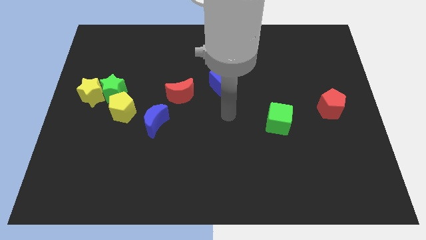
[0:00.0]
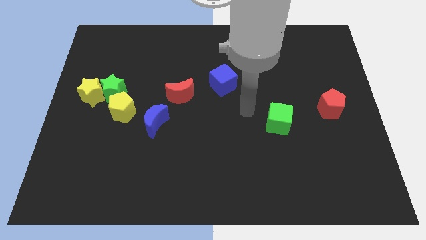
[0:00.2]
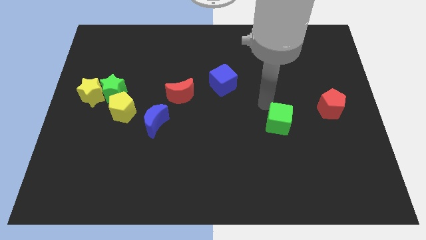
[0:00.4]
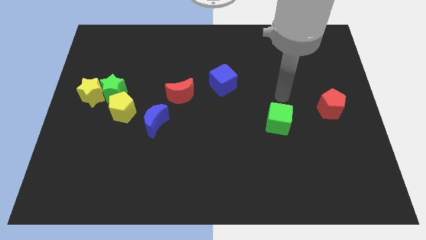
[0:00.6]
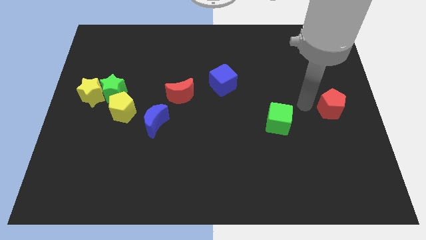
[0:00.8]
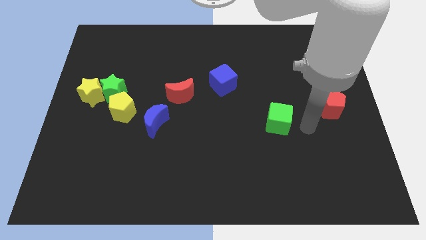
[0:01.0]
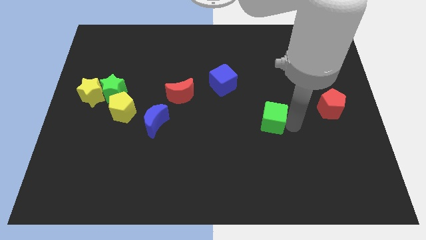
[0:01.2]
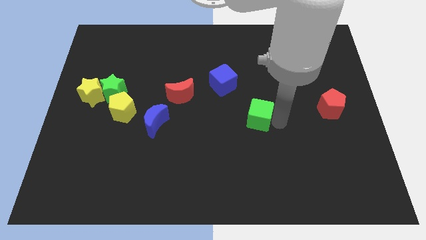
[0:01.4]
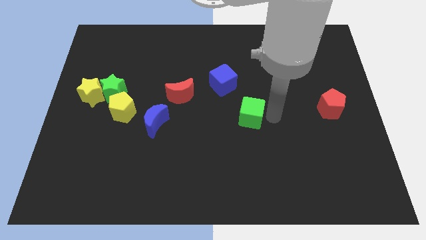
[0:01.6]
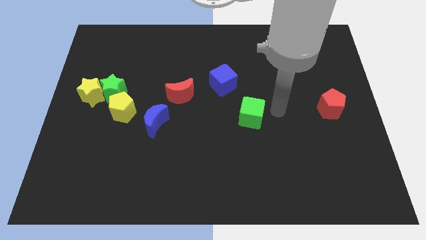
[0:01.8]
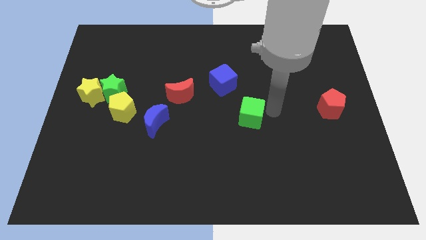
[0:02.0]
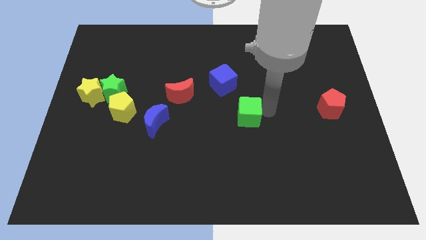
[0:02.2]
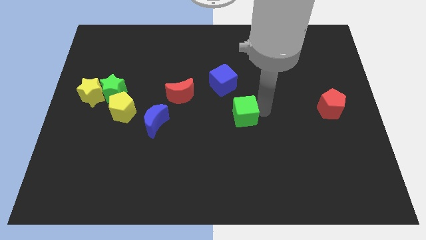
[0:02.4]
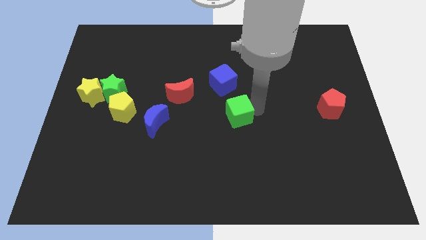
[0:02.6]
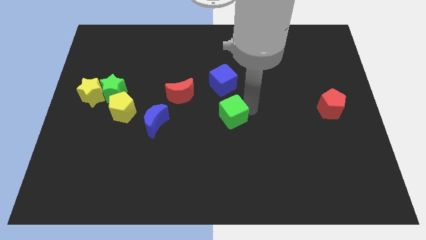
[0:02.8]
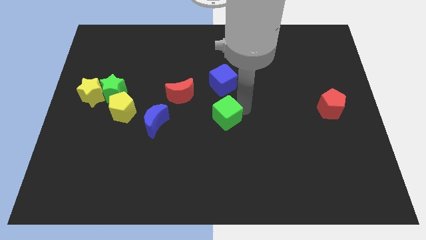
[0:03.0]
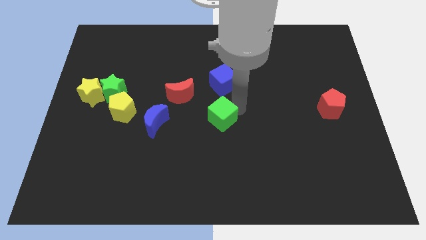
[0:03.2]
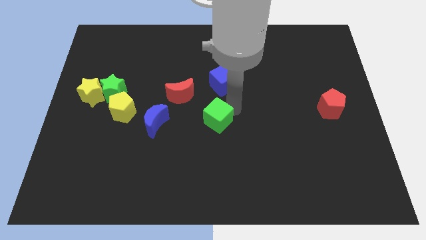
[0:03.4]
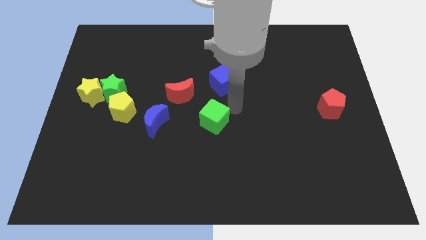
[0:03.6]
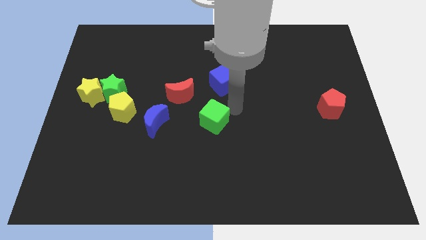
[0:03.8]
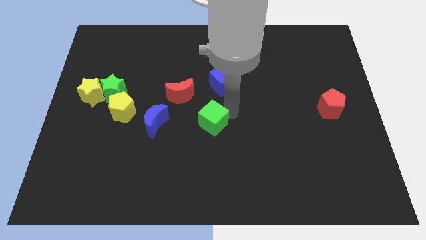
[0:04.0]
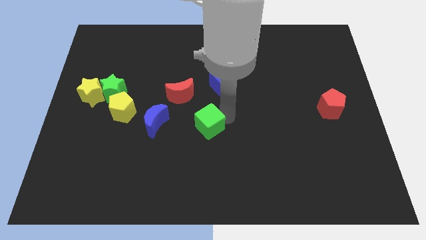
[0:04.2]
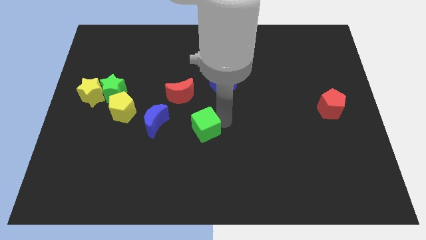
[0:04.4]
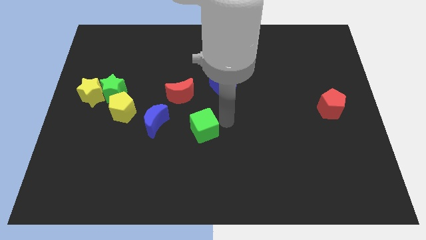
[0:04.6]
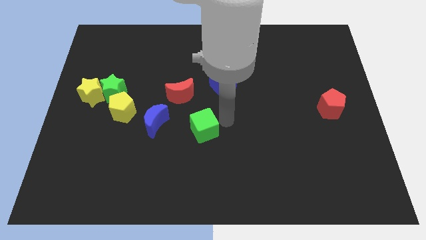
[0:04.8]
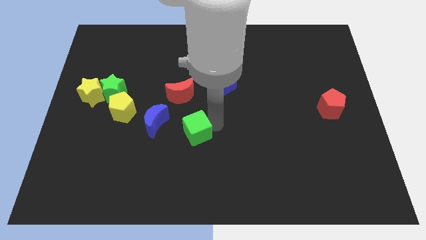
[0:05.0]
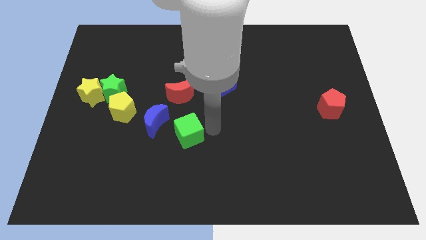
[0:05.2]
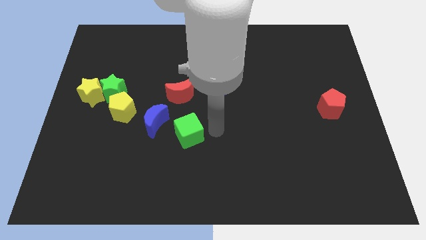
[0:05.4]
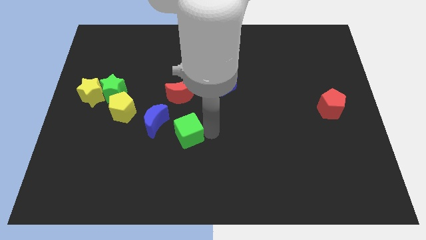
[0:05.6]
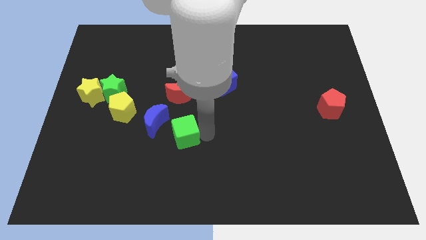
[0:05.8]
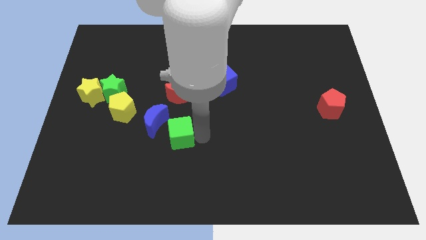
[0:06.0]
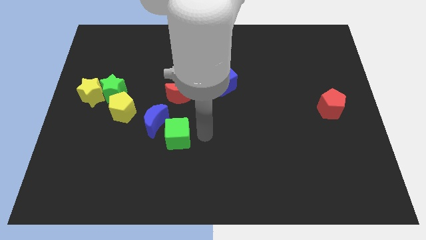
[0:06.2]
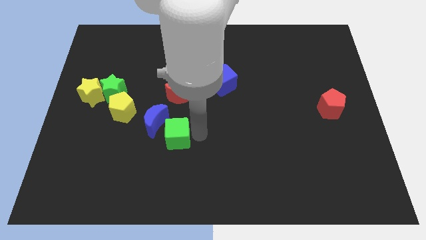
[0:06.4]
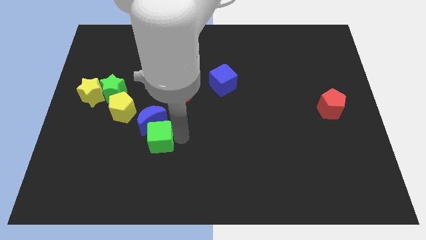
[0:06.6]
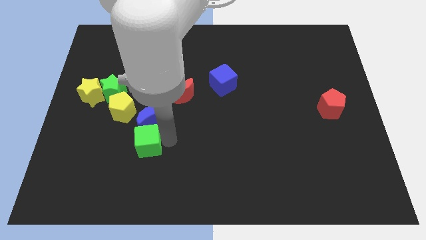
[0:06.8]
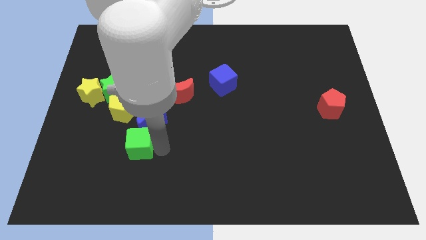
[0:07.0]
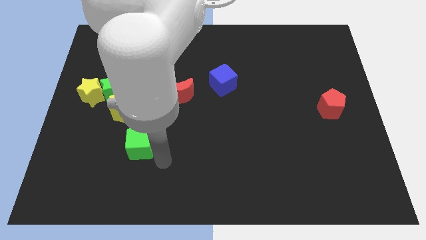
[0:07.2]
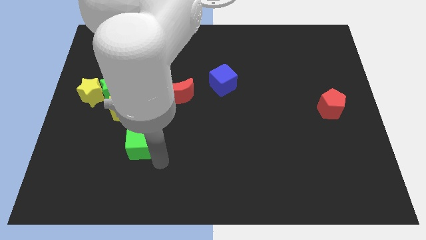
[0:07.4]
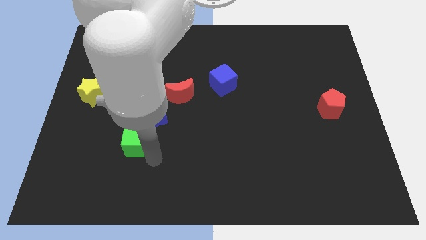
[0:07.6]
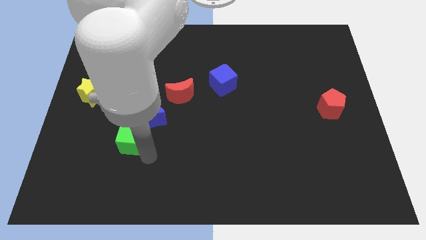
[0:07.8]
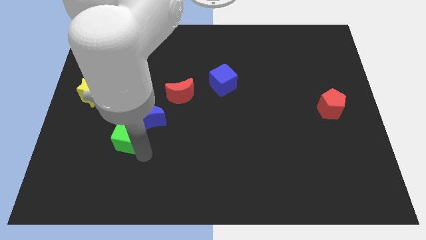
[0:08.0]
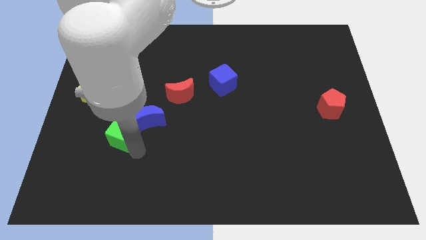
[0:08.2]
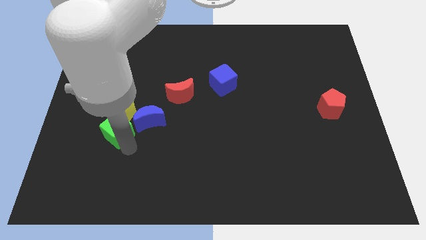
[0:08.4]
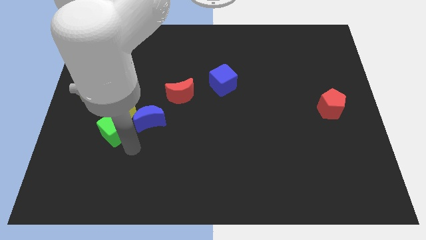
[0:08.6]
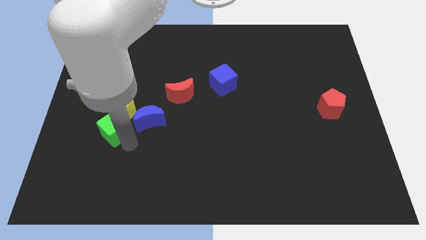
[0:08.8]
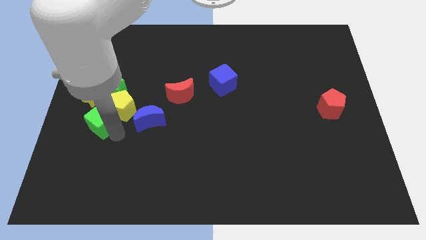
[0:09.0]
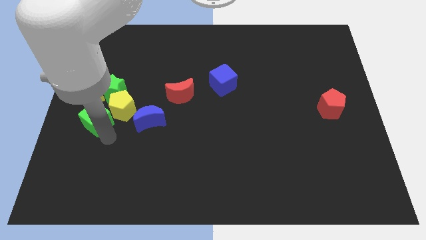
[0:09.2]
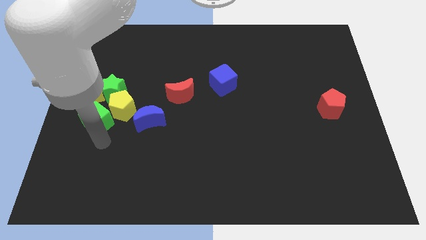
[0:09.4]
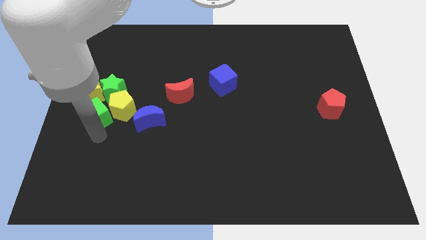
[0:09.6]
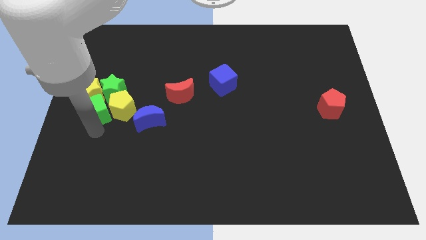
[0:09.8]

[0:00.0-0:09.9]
move the green cube next to the yellow star

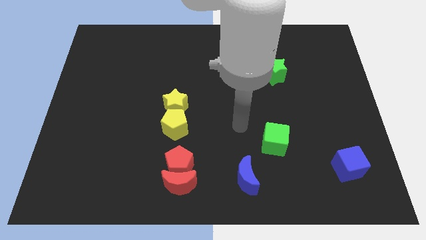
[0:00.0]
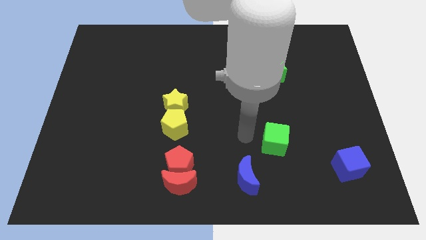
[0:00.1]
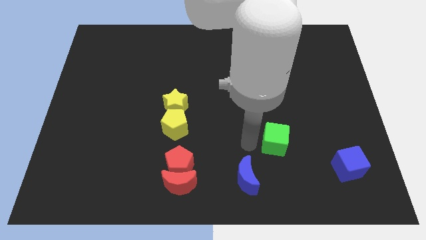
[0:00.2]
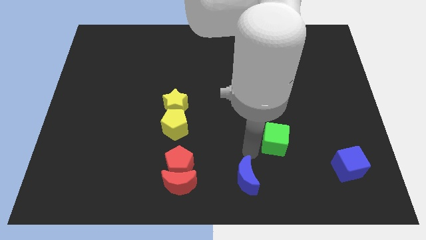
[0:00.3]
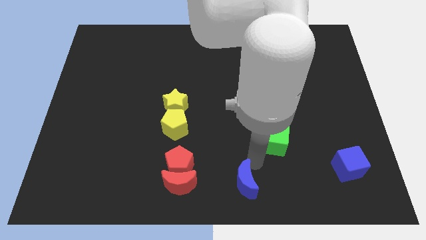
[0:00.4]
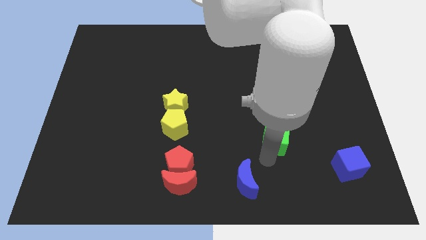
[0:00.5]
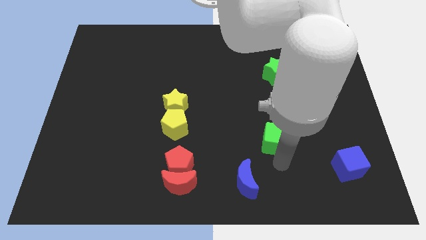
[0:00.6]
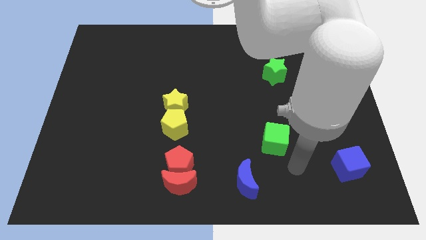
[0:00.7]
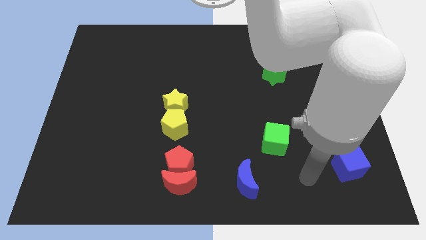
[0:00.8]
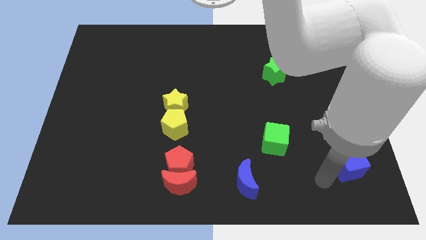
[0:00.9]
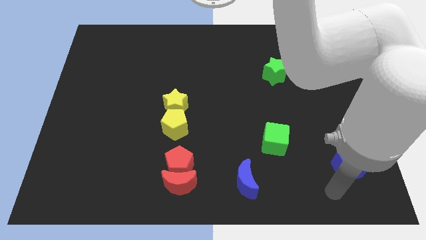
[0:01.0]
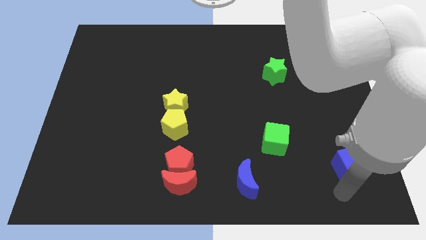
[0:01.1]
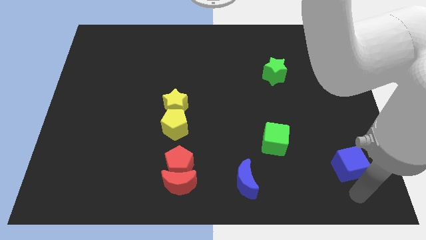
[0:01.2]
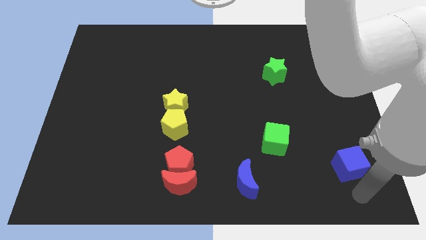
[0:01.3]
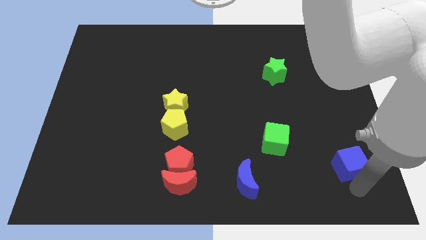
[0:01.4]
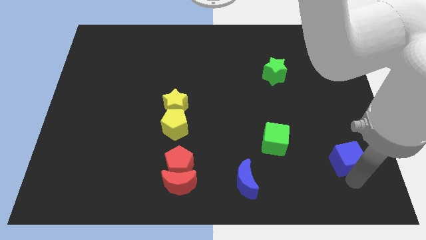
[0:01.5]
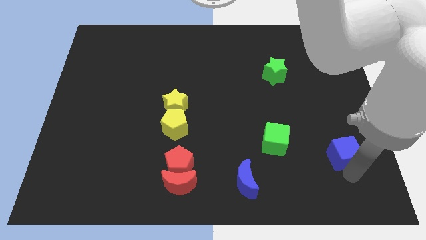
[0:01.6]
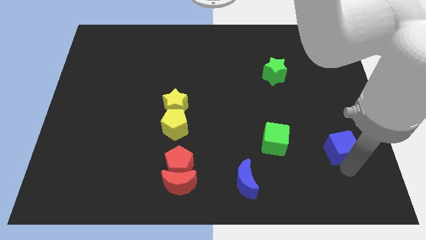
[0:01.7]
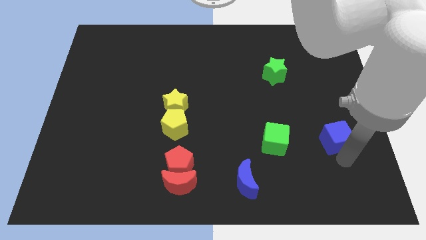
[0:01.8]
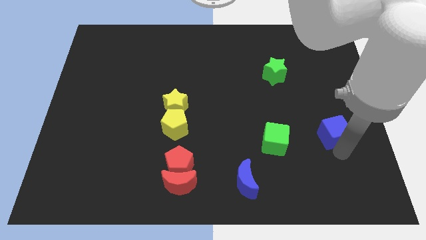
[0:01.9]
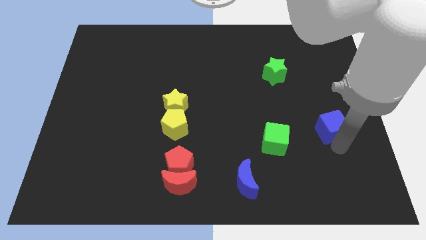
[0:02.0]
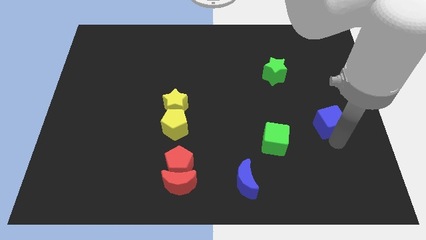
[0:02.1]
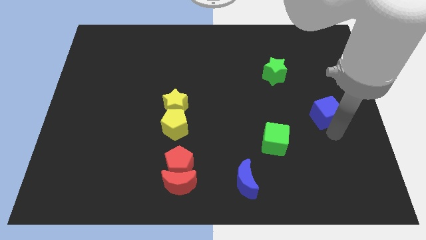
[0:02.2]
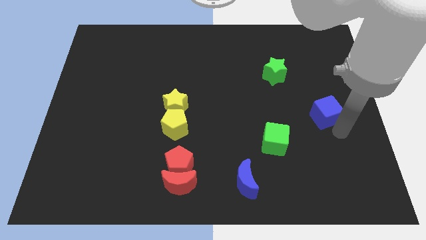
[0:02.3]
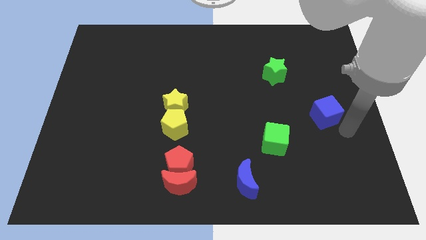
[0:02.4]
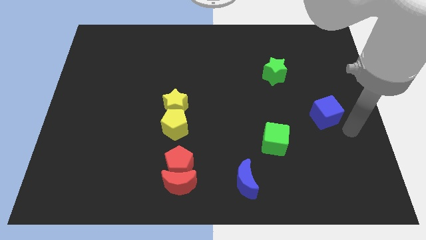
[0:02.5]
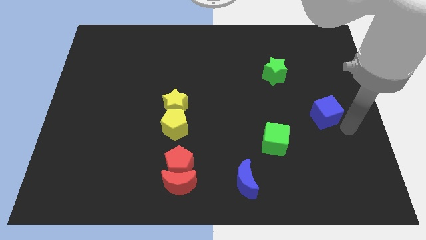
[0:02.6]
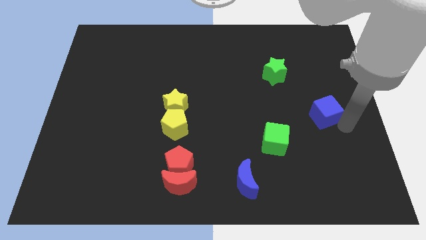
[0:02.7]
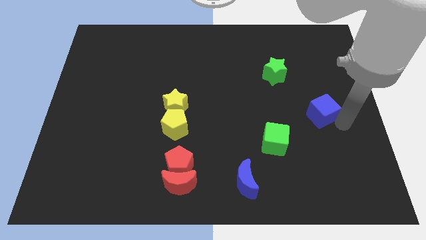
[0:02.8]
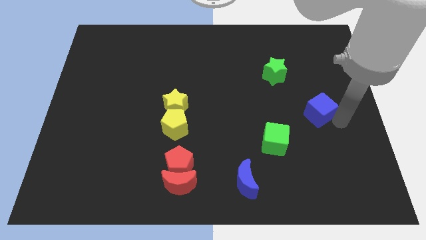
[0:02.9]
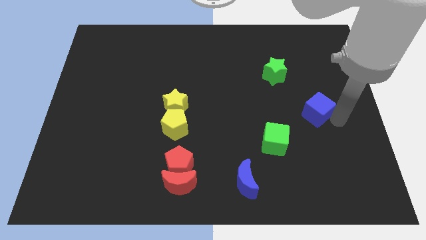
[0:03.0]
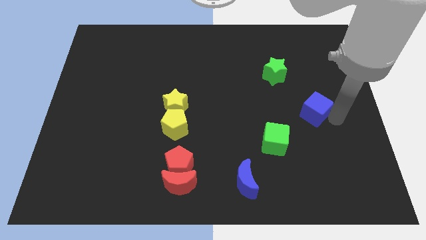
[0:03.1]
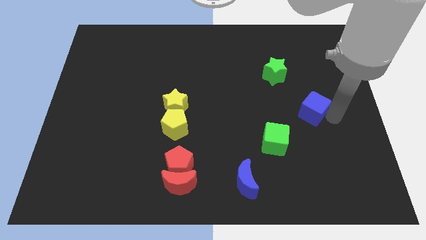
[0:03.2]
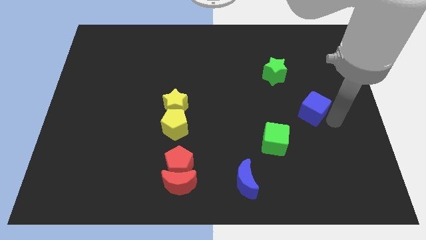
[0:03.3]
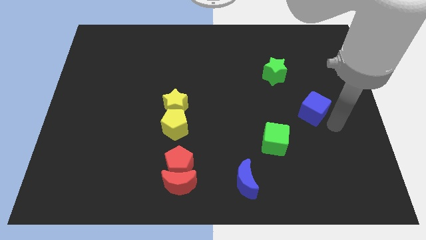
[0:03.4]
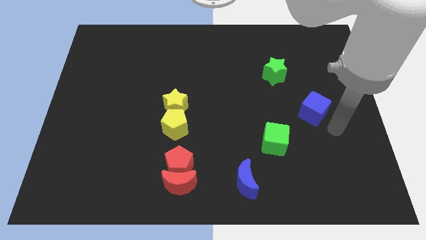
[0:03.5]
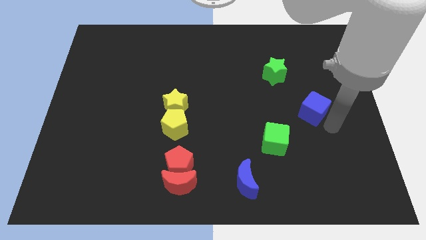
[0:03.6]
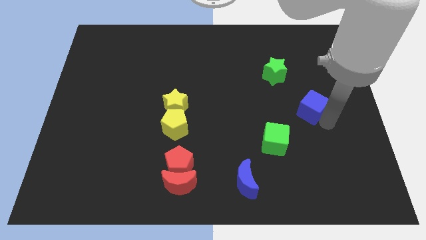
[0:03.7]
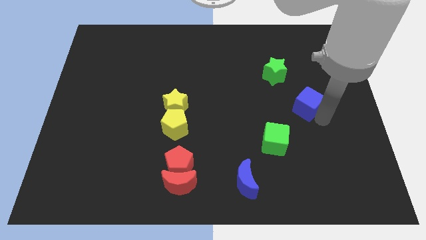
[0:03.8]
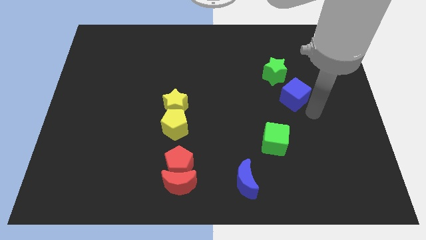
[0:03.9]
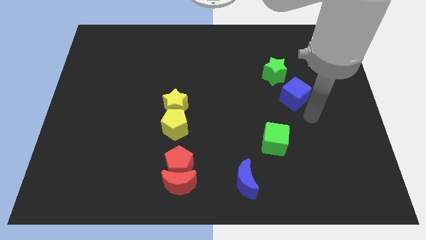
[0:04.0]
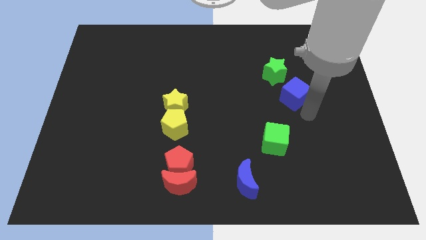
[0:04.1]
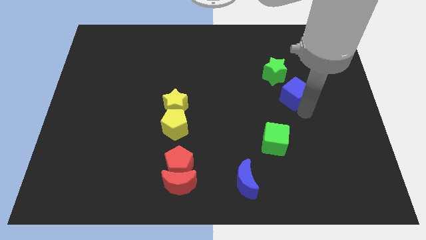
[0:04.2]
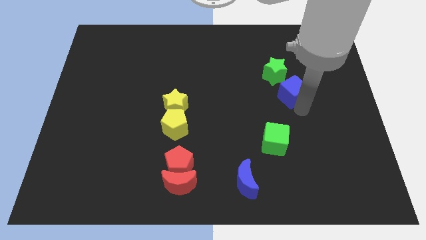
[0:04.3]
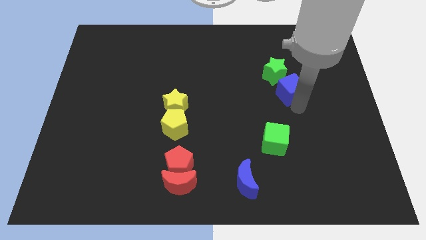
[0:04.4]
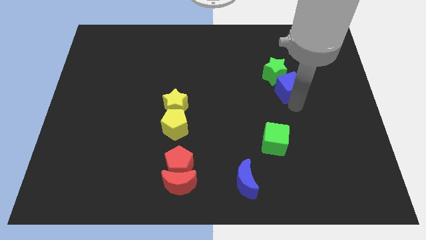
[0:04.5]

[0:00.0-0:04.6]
slide the blue cube towards the green star
